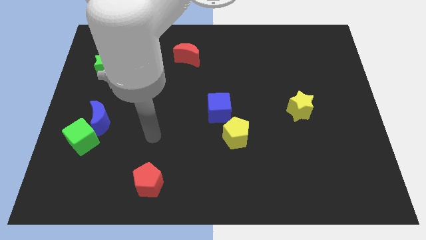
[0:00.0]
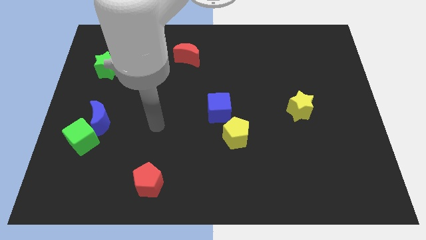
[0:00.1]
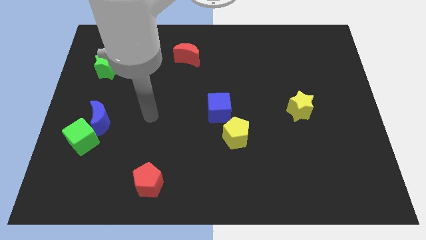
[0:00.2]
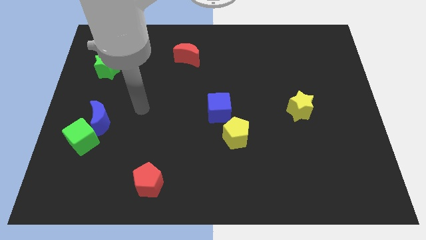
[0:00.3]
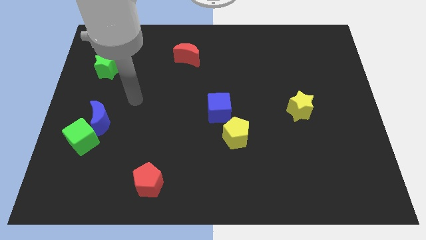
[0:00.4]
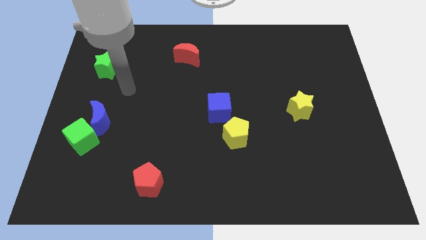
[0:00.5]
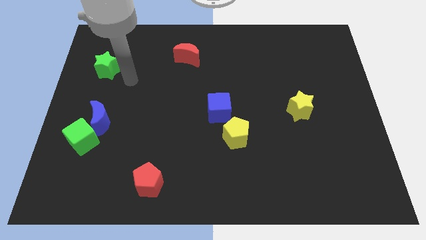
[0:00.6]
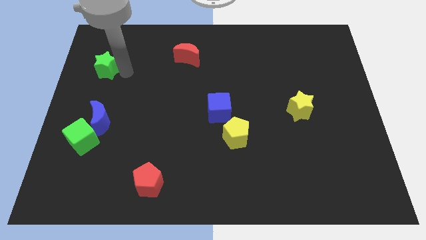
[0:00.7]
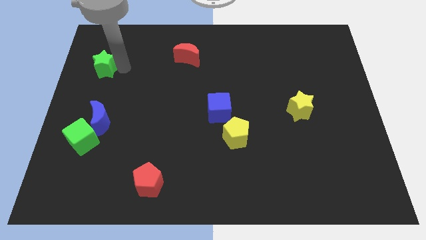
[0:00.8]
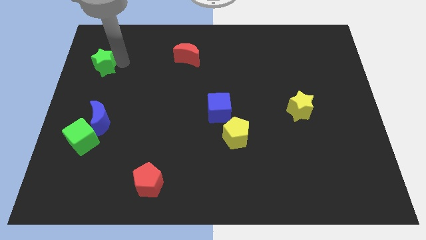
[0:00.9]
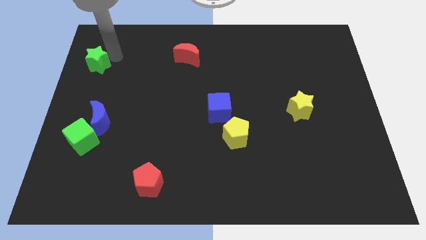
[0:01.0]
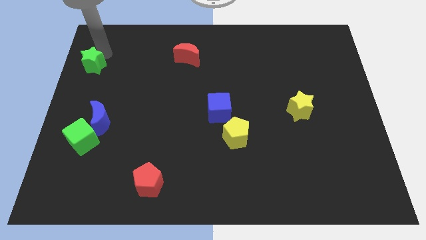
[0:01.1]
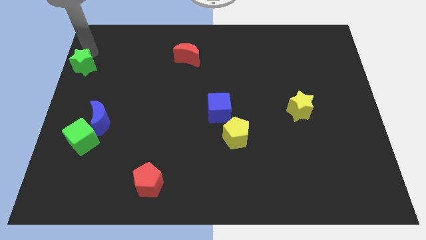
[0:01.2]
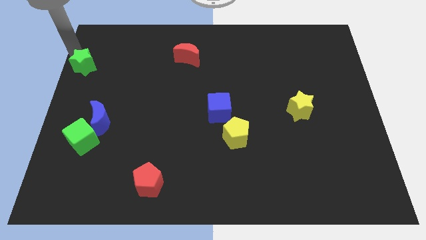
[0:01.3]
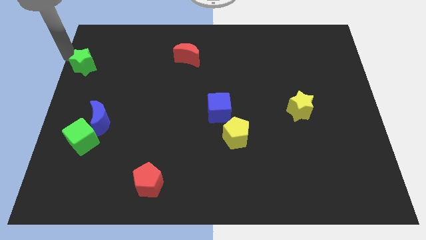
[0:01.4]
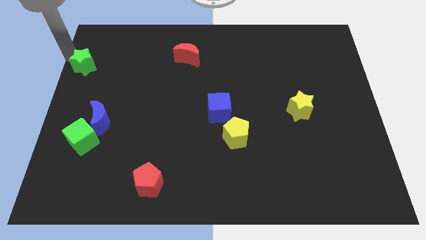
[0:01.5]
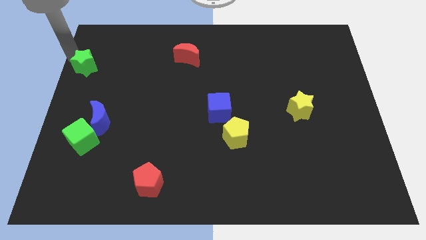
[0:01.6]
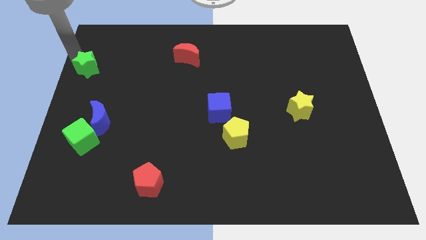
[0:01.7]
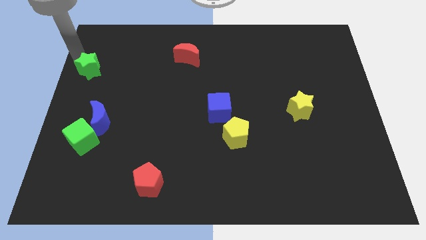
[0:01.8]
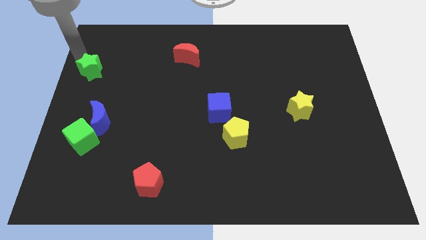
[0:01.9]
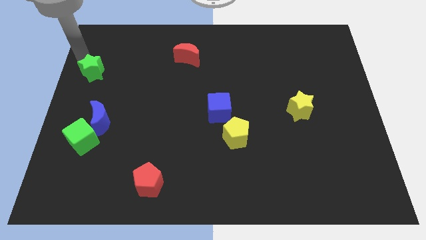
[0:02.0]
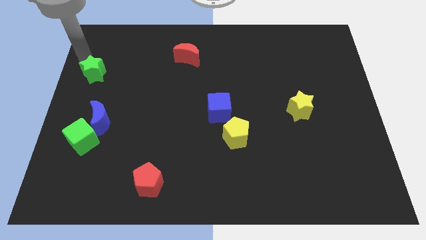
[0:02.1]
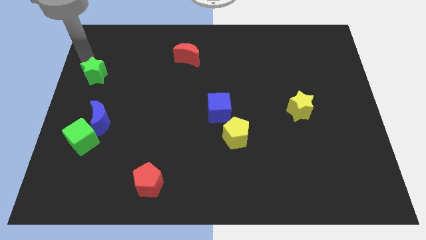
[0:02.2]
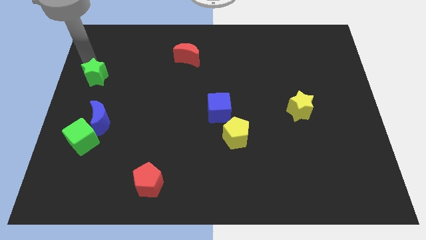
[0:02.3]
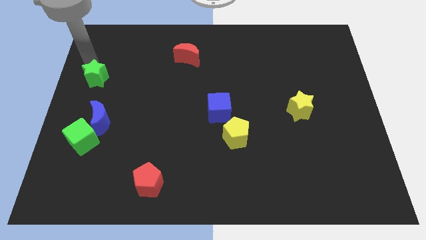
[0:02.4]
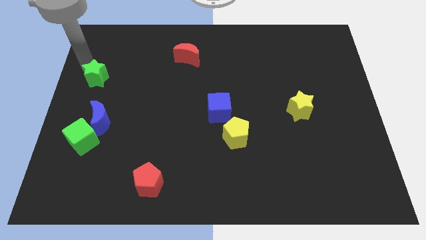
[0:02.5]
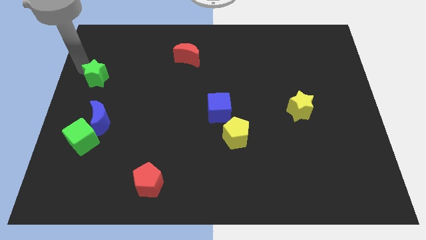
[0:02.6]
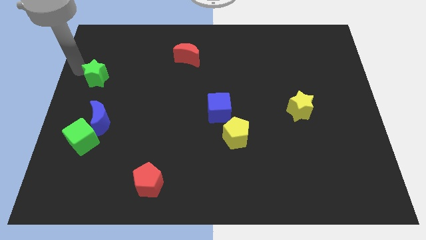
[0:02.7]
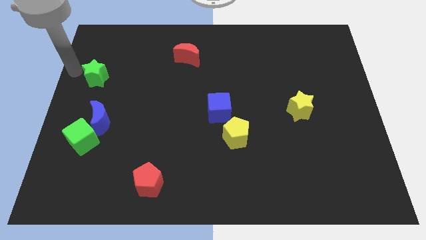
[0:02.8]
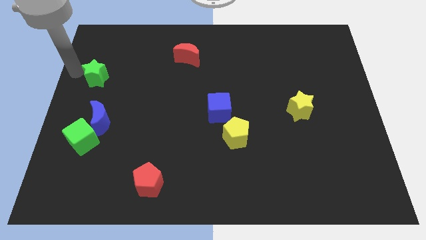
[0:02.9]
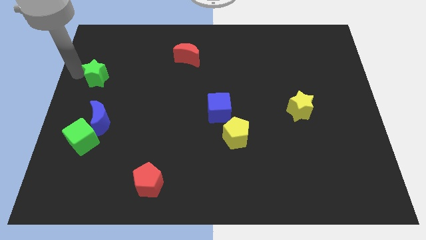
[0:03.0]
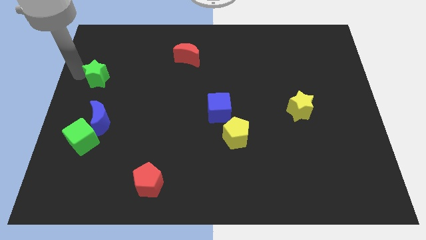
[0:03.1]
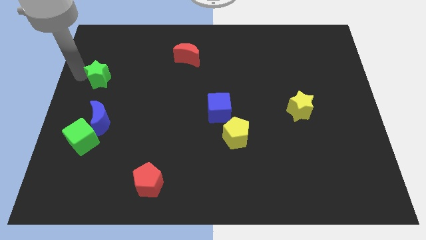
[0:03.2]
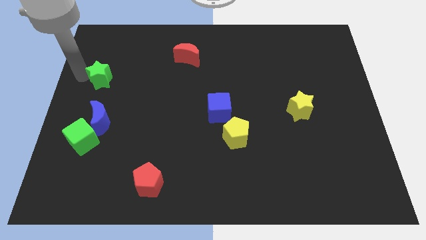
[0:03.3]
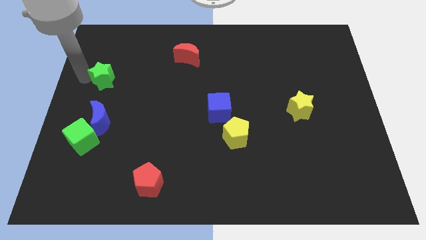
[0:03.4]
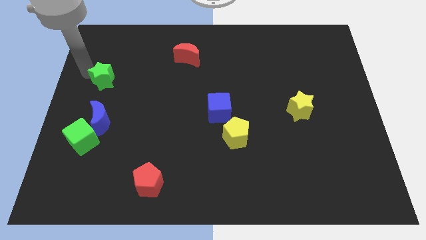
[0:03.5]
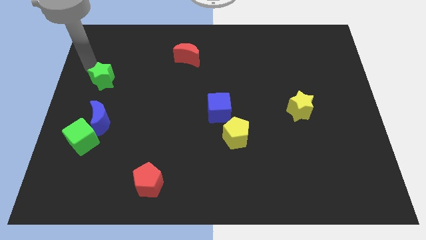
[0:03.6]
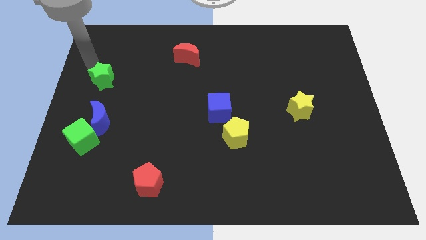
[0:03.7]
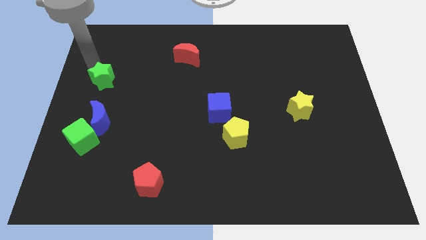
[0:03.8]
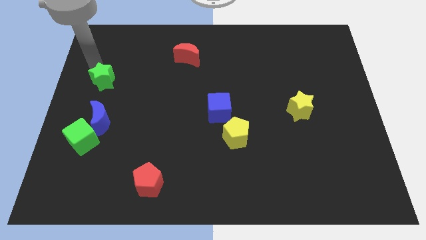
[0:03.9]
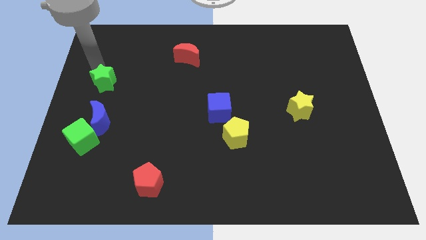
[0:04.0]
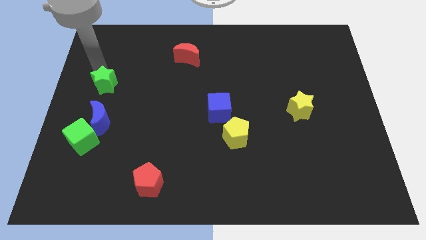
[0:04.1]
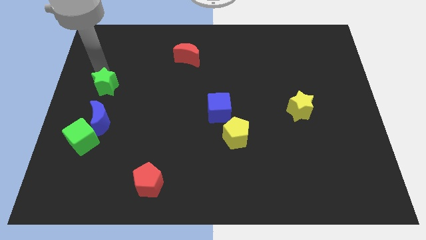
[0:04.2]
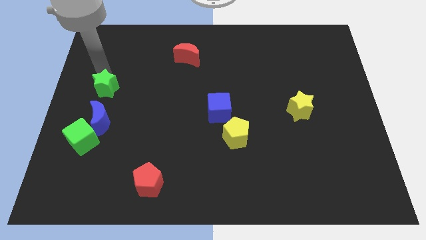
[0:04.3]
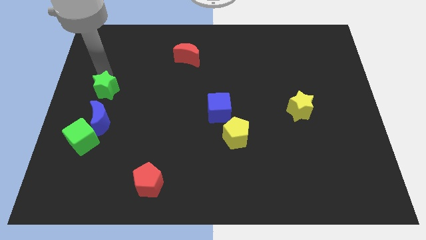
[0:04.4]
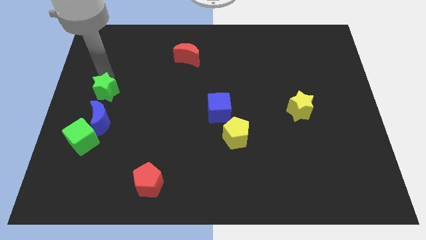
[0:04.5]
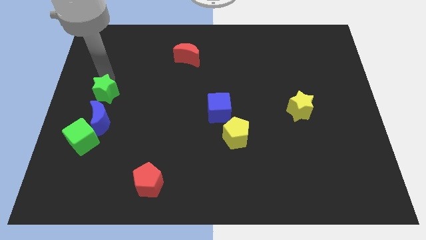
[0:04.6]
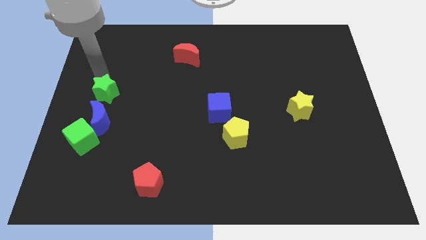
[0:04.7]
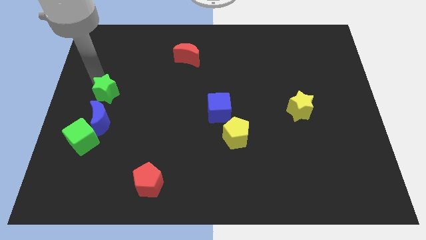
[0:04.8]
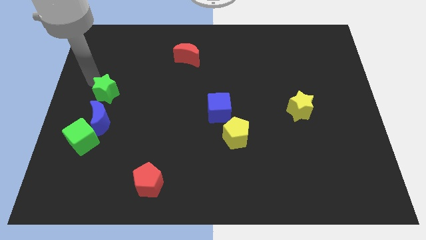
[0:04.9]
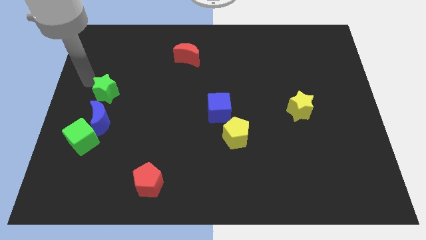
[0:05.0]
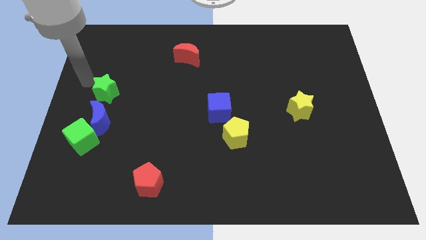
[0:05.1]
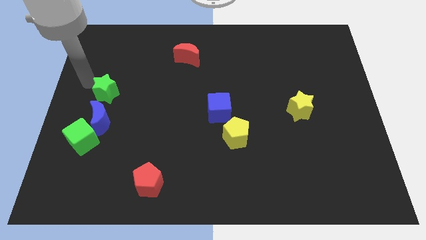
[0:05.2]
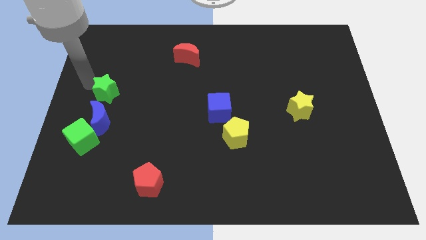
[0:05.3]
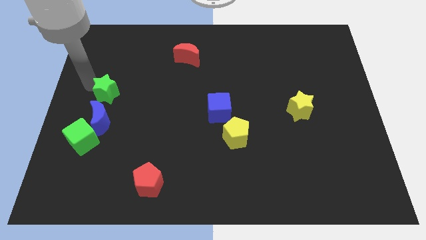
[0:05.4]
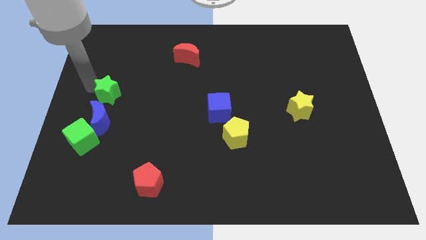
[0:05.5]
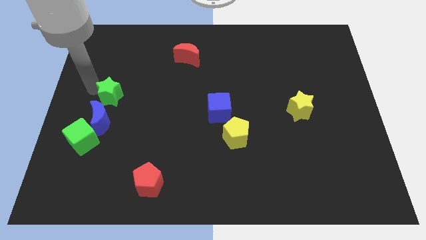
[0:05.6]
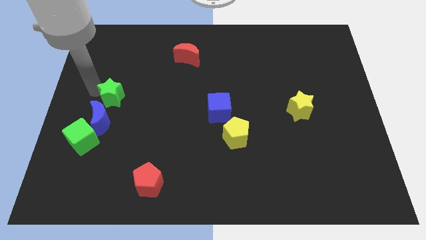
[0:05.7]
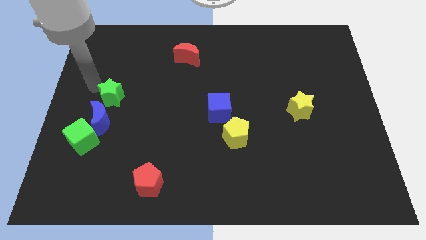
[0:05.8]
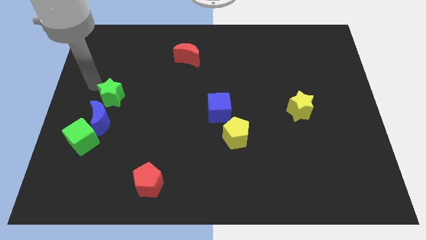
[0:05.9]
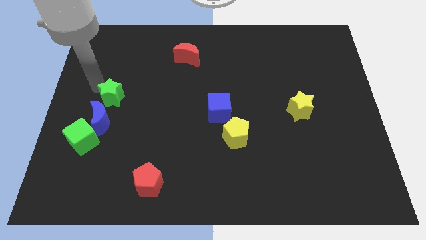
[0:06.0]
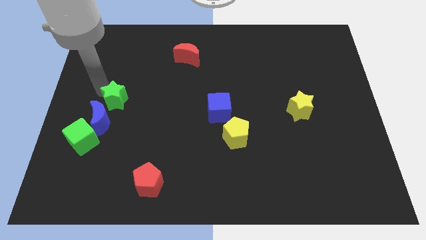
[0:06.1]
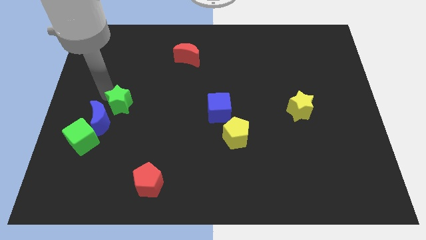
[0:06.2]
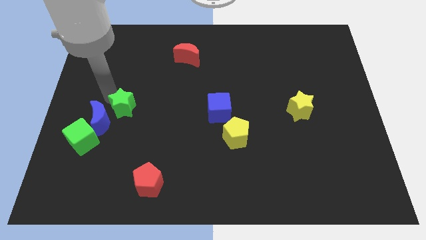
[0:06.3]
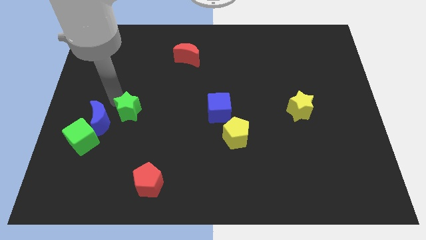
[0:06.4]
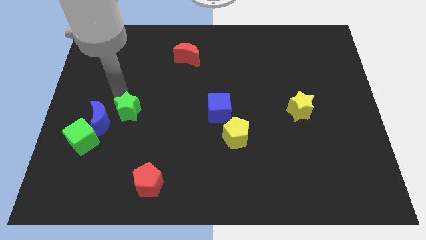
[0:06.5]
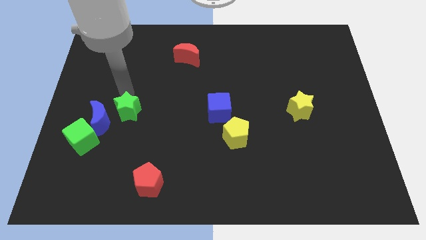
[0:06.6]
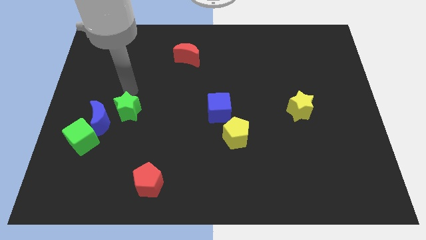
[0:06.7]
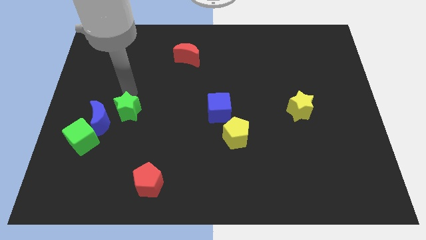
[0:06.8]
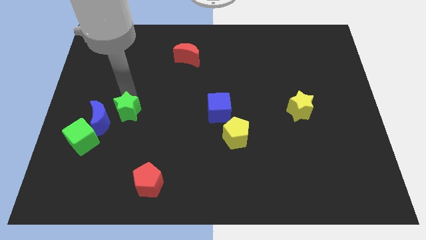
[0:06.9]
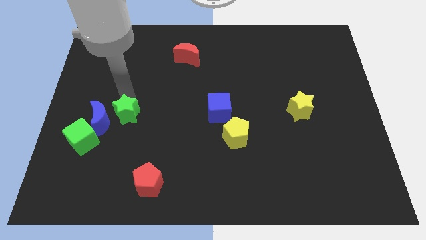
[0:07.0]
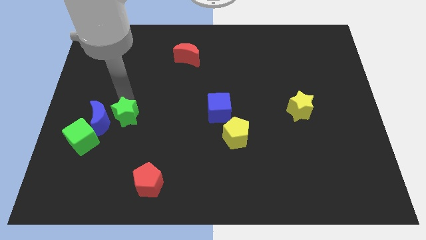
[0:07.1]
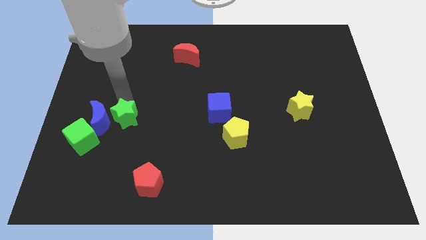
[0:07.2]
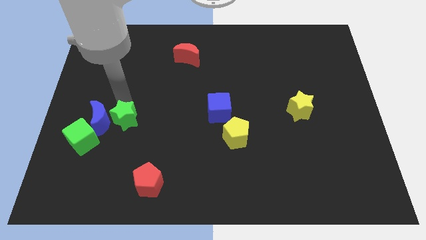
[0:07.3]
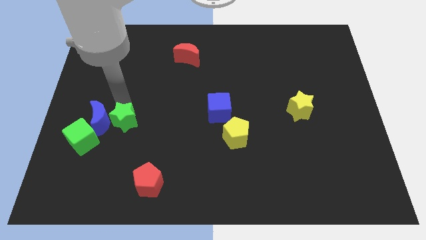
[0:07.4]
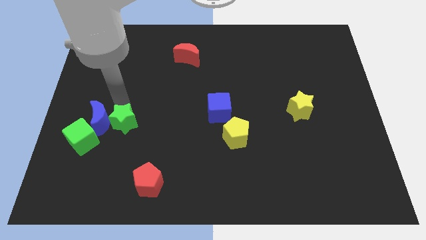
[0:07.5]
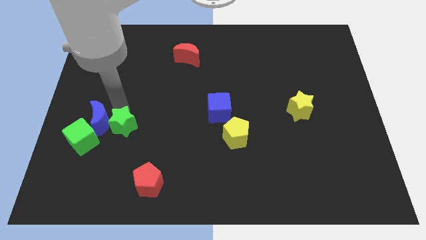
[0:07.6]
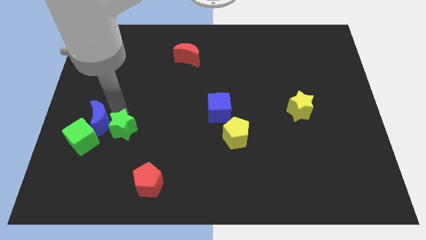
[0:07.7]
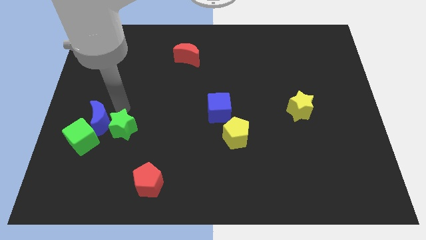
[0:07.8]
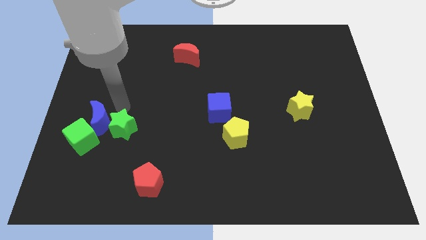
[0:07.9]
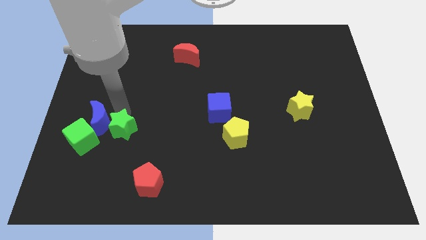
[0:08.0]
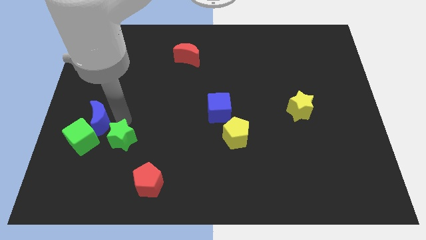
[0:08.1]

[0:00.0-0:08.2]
move the green star to the top left side of the red pentagon
